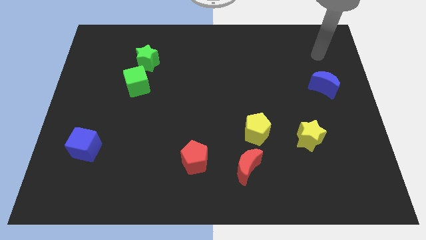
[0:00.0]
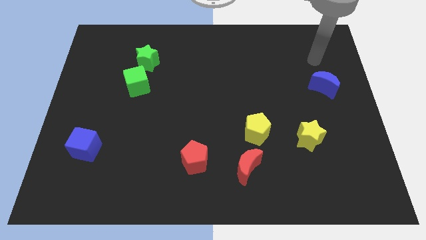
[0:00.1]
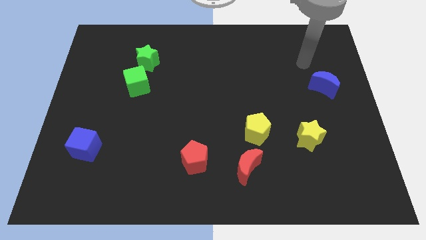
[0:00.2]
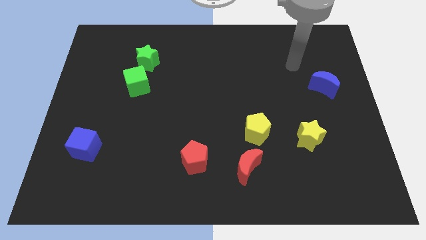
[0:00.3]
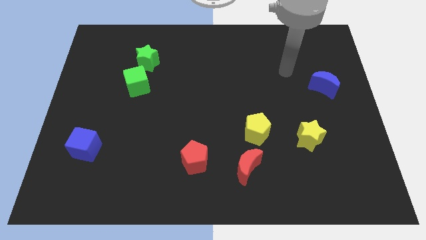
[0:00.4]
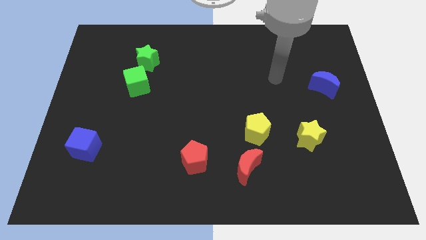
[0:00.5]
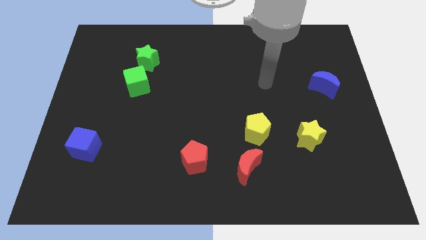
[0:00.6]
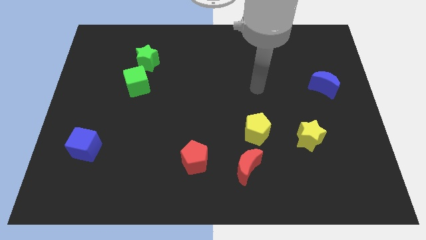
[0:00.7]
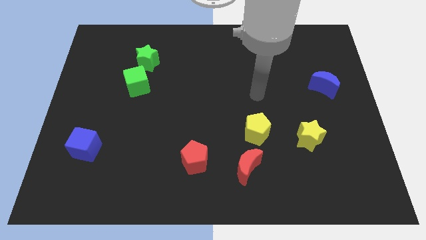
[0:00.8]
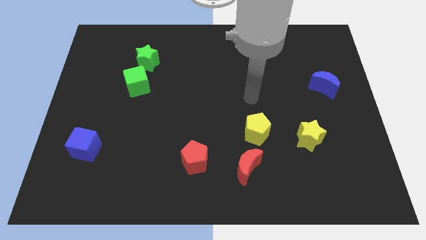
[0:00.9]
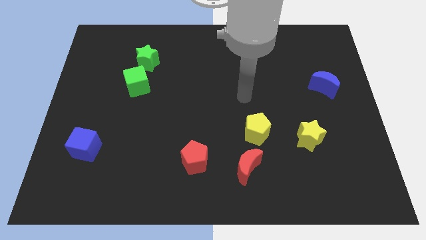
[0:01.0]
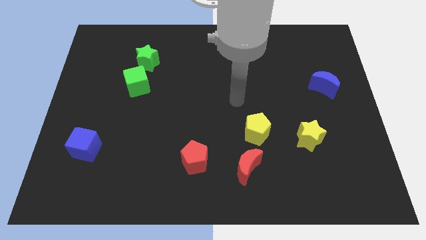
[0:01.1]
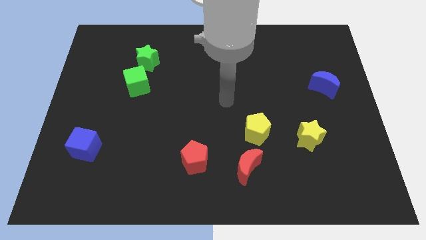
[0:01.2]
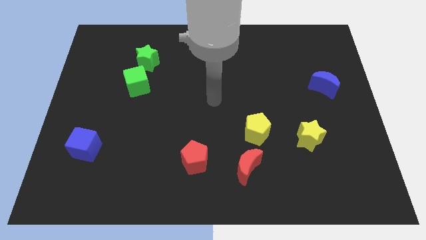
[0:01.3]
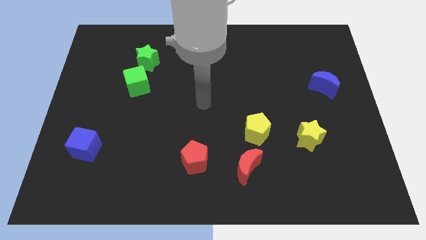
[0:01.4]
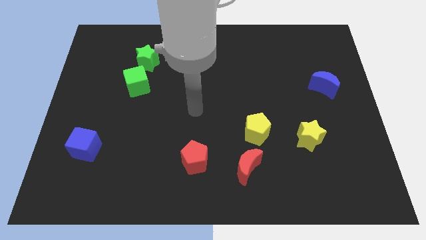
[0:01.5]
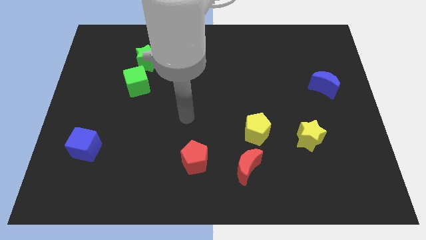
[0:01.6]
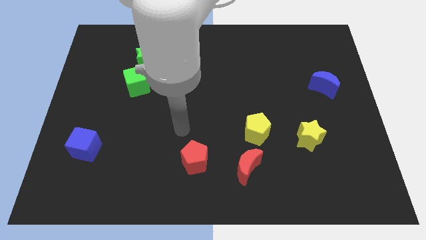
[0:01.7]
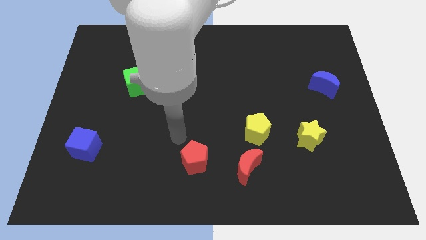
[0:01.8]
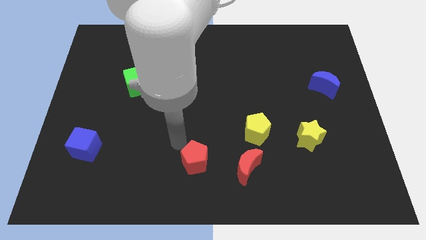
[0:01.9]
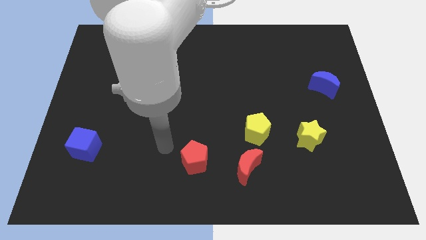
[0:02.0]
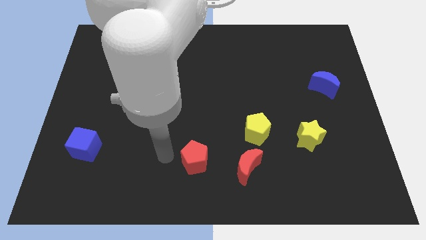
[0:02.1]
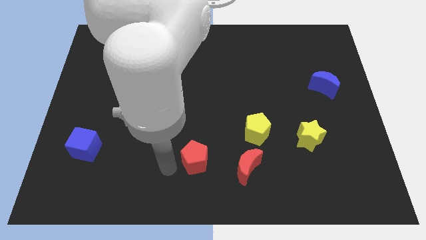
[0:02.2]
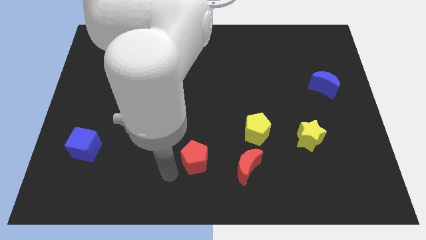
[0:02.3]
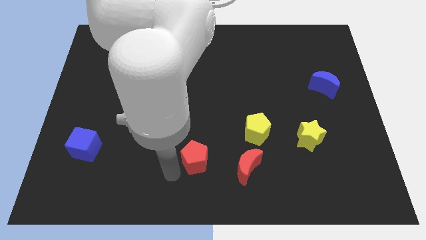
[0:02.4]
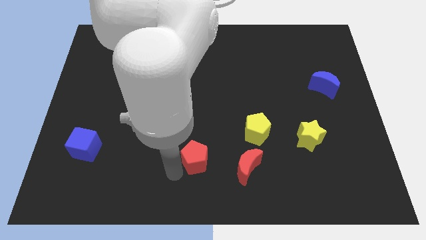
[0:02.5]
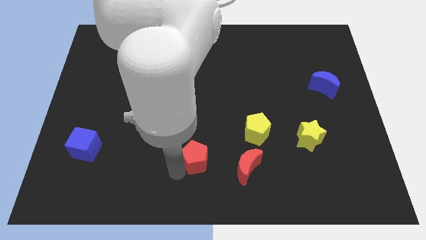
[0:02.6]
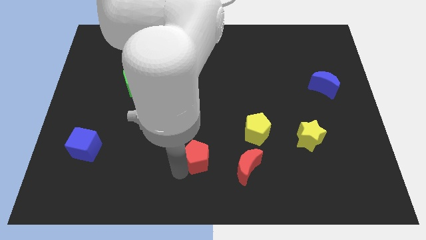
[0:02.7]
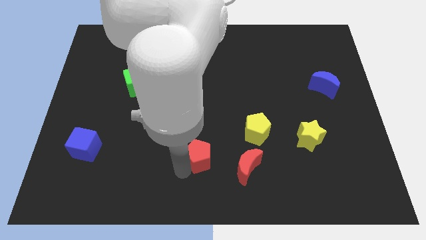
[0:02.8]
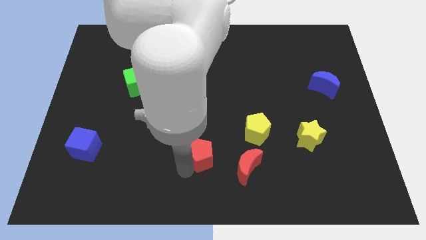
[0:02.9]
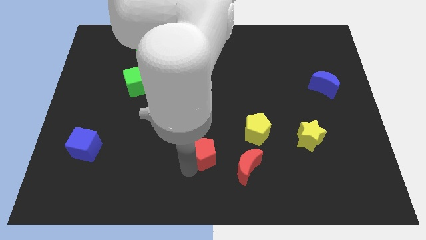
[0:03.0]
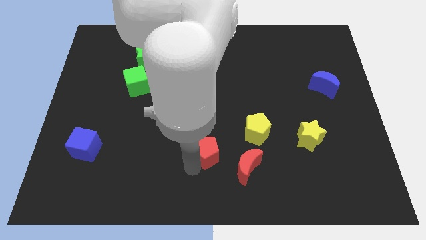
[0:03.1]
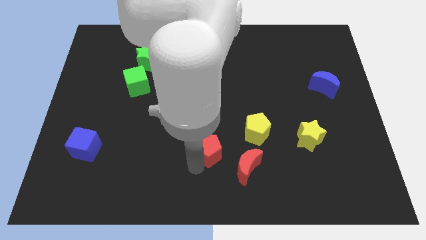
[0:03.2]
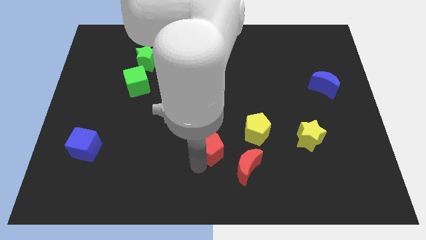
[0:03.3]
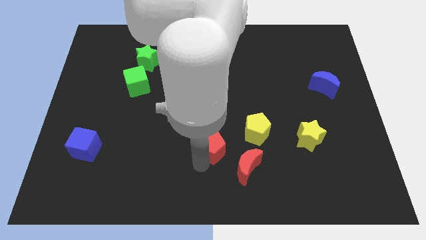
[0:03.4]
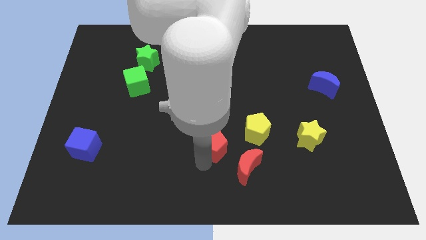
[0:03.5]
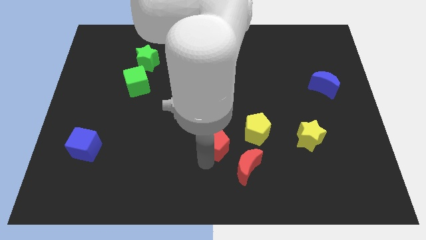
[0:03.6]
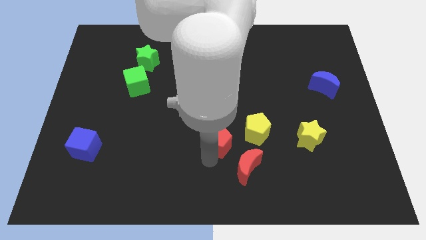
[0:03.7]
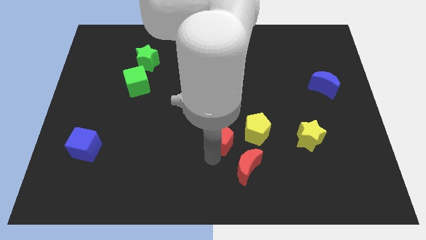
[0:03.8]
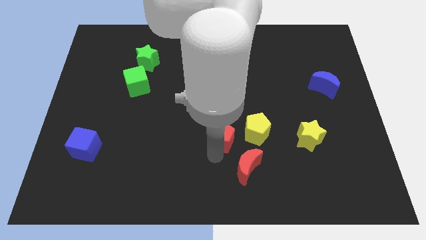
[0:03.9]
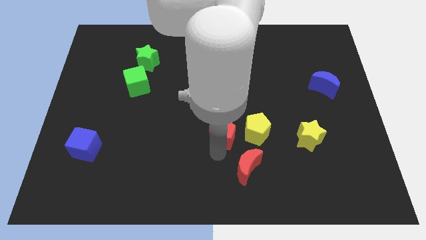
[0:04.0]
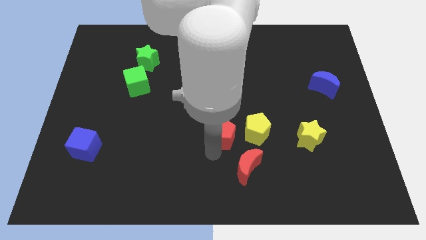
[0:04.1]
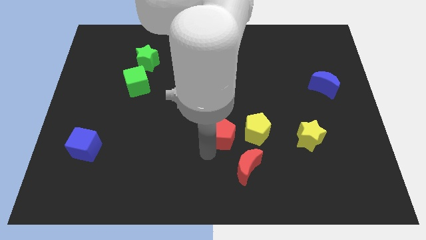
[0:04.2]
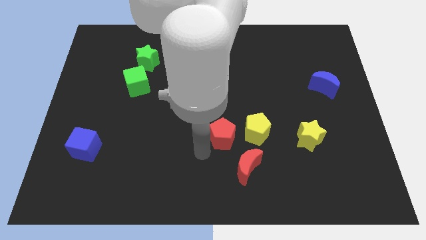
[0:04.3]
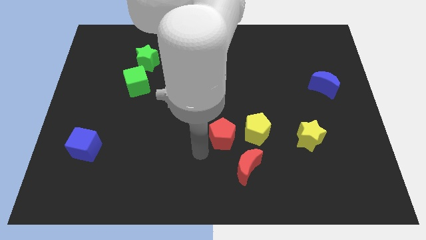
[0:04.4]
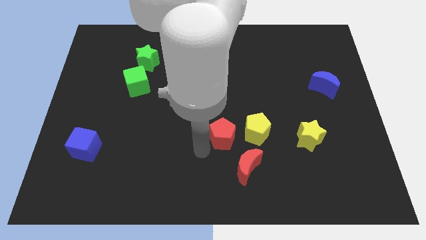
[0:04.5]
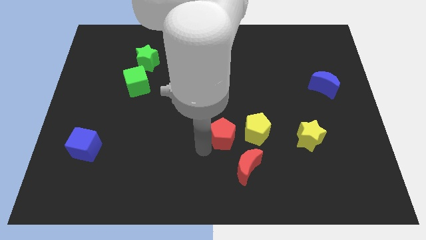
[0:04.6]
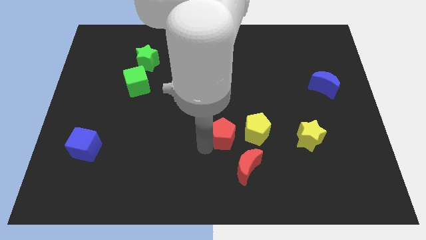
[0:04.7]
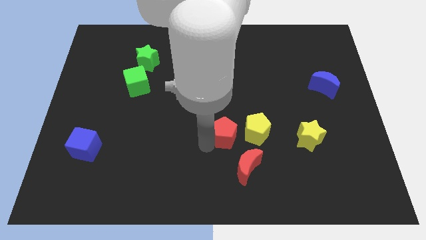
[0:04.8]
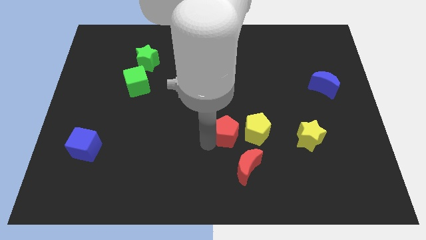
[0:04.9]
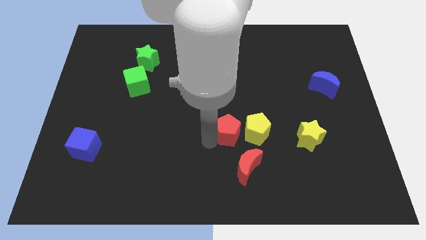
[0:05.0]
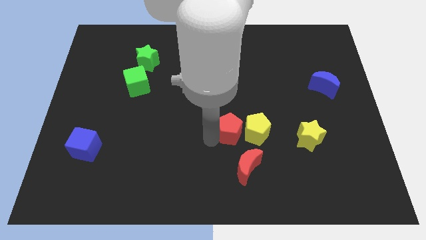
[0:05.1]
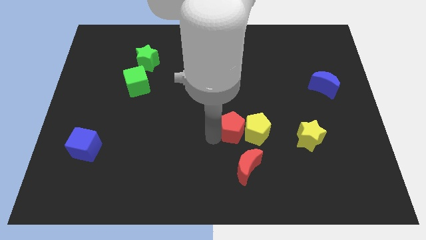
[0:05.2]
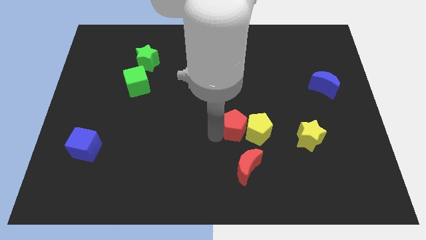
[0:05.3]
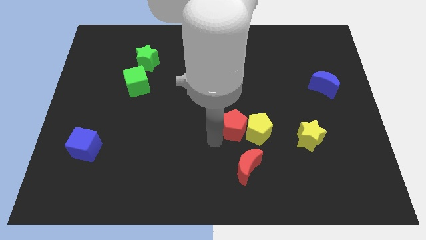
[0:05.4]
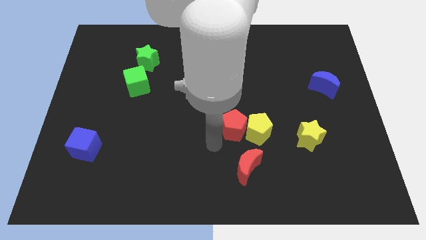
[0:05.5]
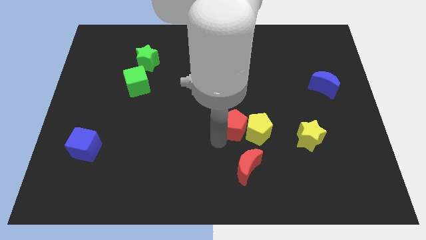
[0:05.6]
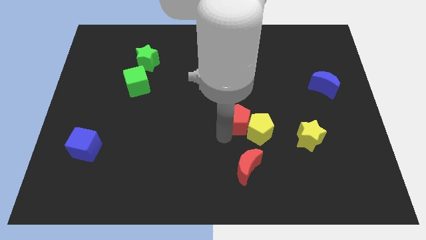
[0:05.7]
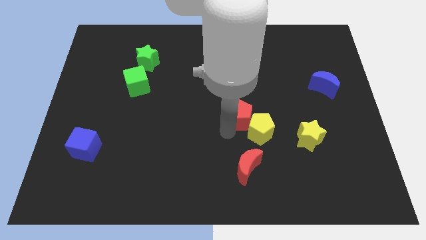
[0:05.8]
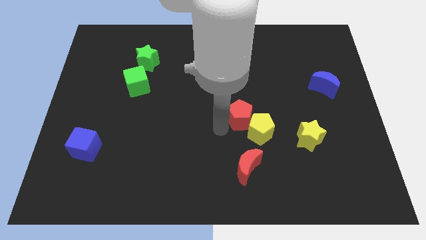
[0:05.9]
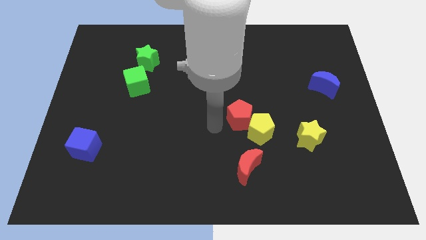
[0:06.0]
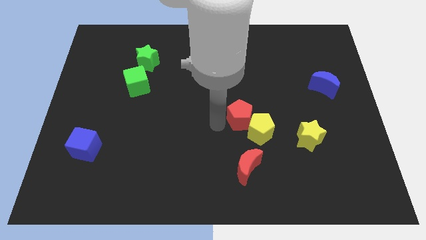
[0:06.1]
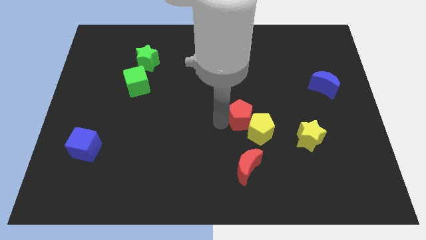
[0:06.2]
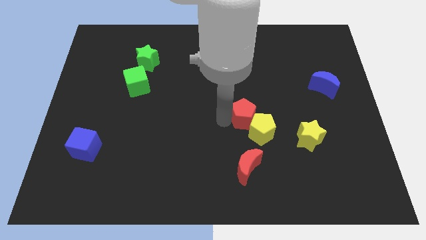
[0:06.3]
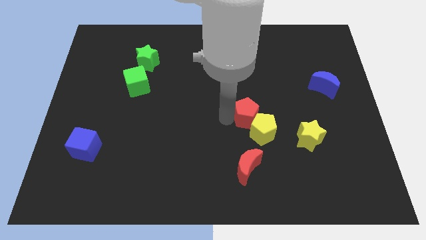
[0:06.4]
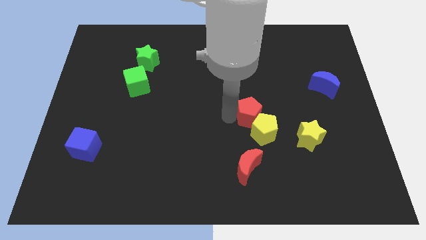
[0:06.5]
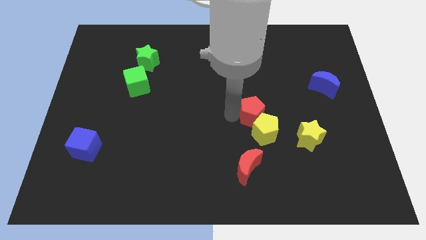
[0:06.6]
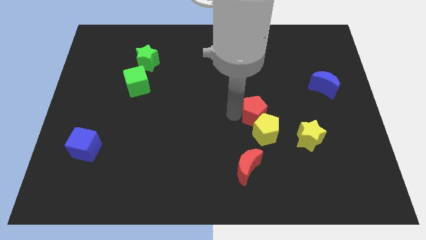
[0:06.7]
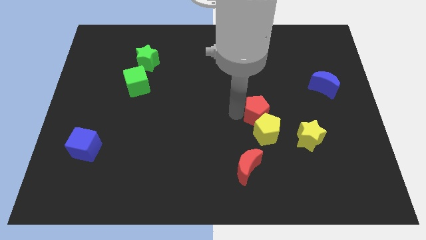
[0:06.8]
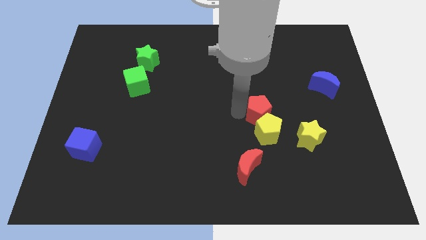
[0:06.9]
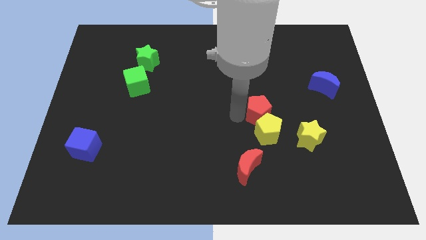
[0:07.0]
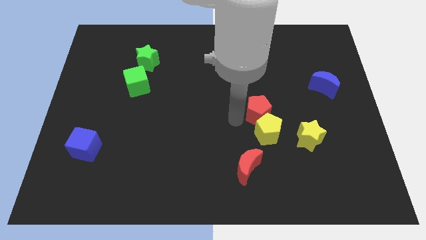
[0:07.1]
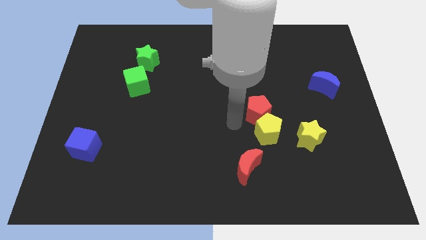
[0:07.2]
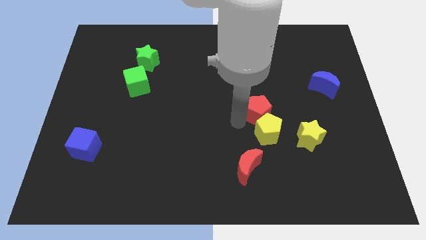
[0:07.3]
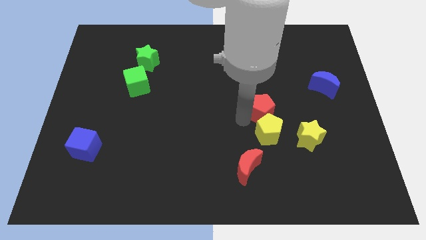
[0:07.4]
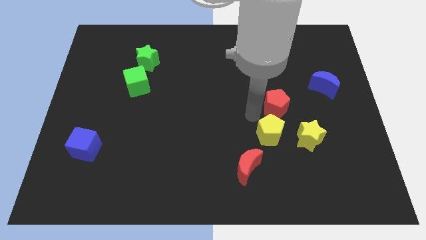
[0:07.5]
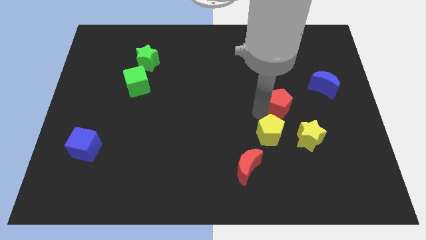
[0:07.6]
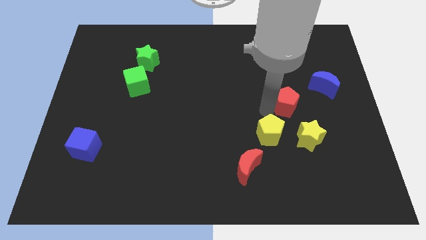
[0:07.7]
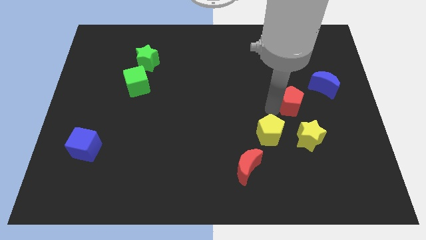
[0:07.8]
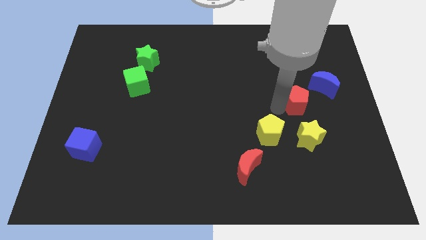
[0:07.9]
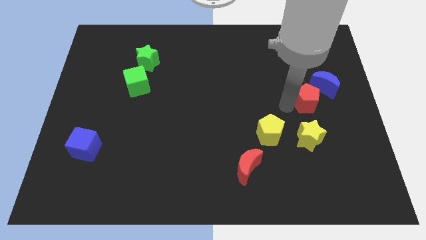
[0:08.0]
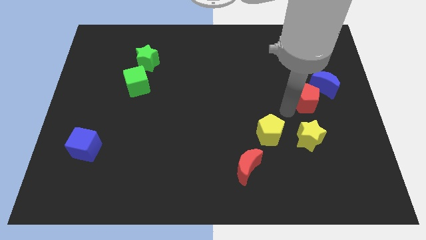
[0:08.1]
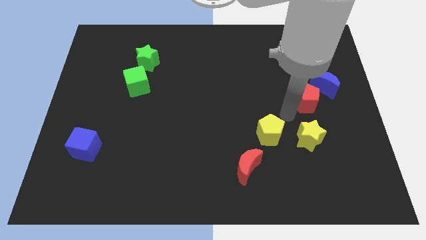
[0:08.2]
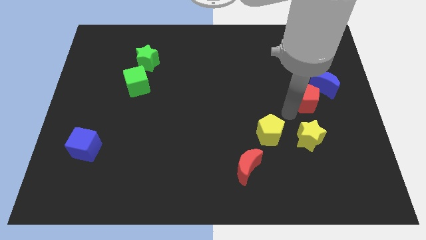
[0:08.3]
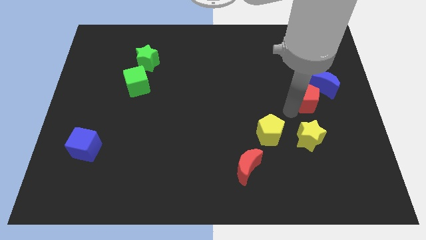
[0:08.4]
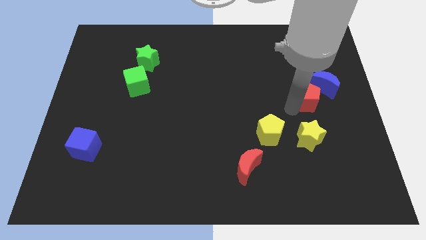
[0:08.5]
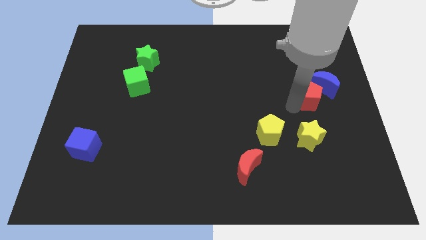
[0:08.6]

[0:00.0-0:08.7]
slide the red pentagon towards the blue moon
